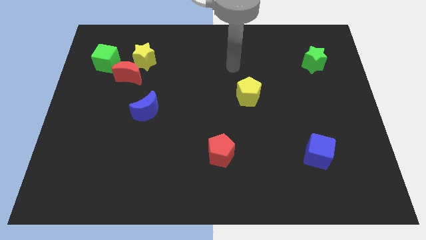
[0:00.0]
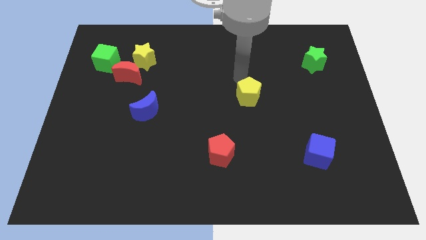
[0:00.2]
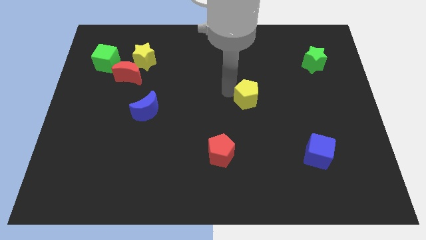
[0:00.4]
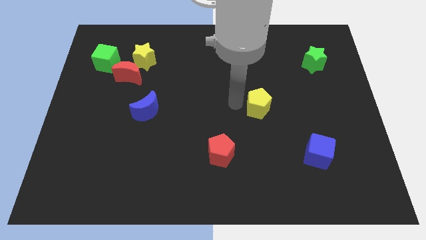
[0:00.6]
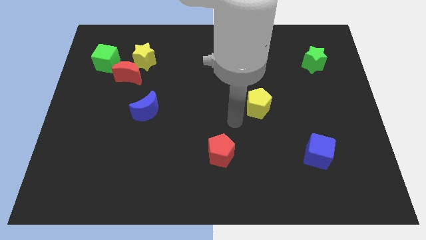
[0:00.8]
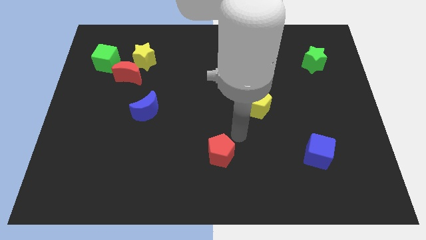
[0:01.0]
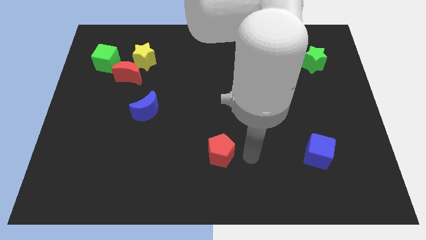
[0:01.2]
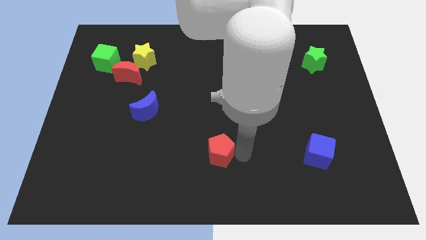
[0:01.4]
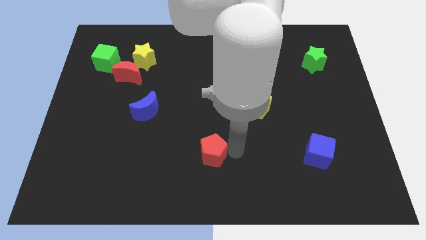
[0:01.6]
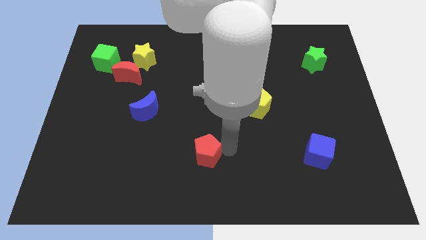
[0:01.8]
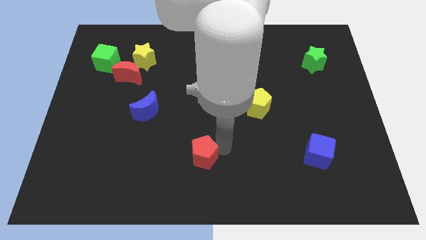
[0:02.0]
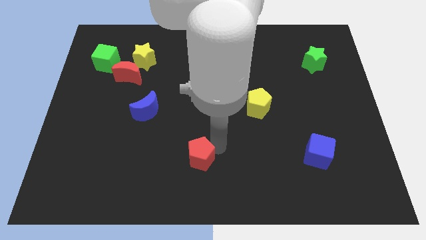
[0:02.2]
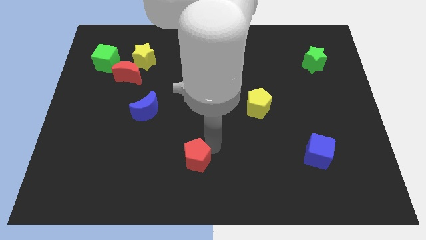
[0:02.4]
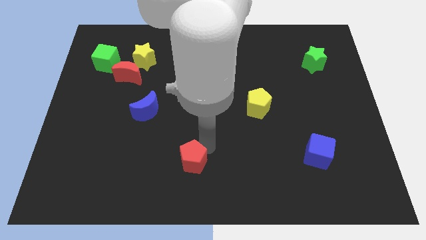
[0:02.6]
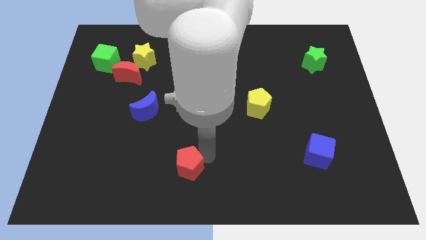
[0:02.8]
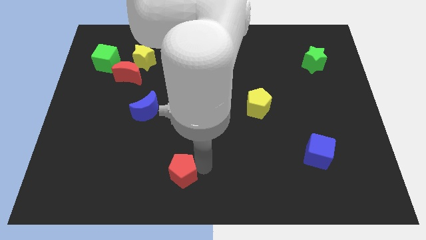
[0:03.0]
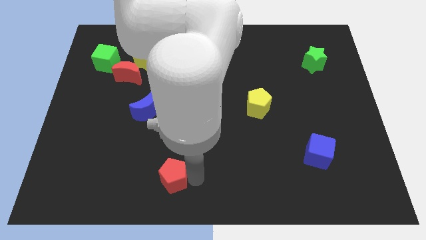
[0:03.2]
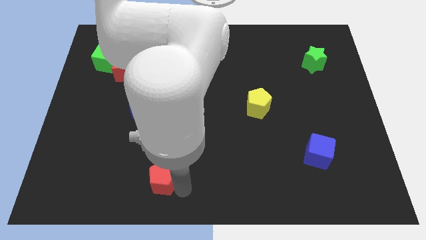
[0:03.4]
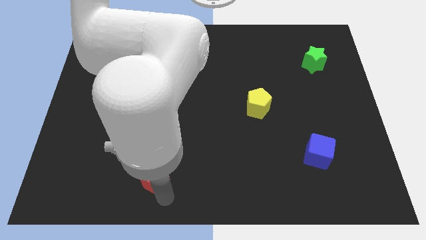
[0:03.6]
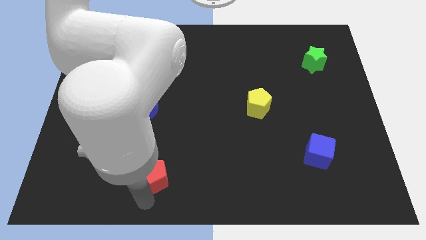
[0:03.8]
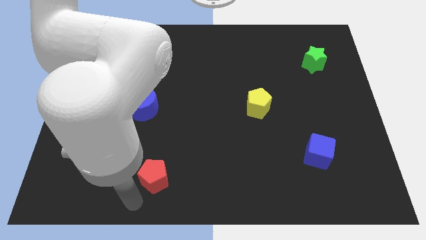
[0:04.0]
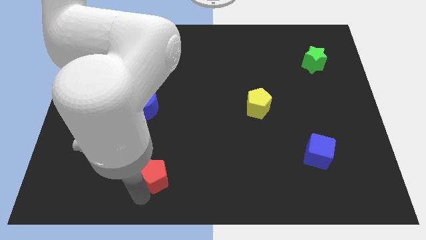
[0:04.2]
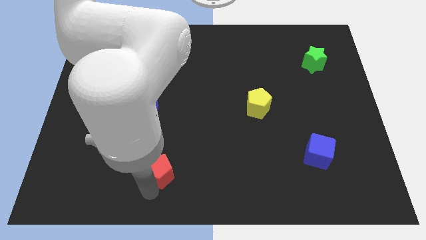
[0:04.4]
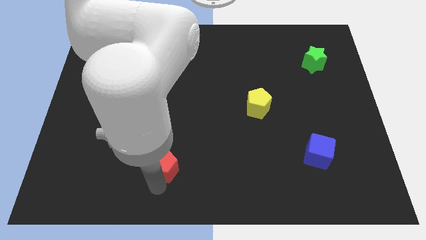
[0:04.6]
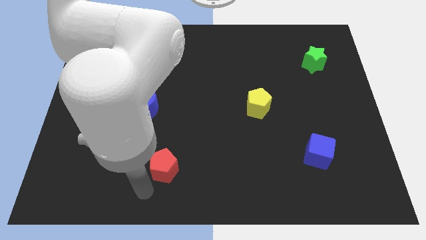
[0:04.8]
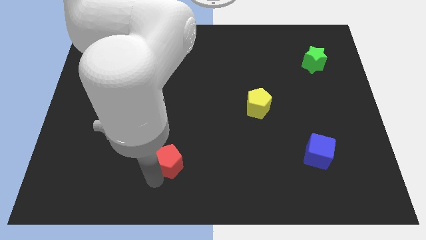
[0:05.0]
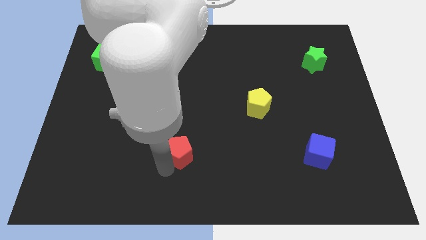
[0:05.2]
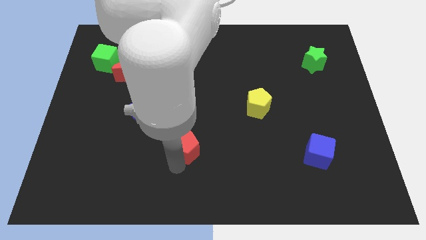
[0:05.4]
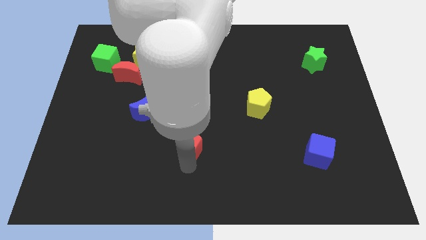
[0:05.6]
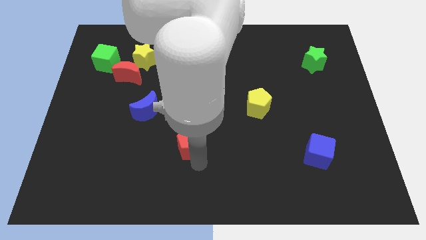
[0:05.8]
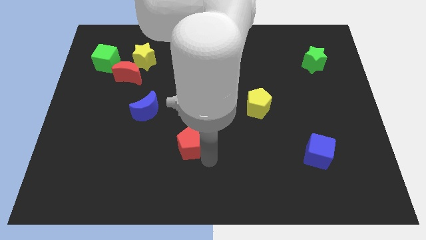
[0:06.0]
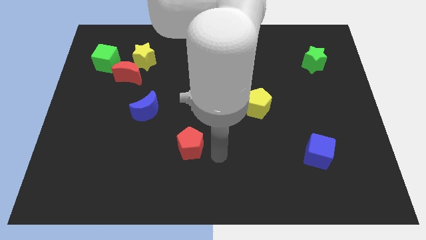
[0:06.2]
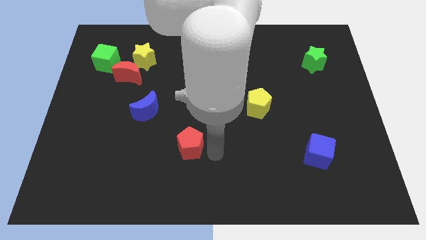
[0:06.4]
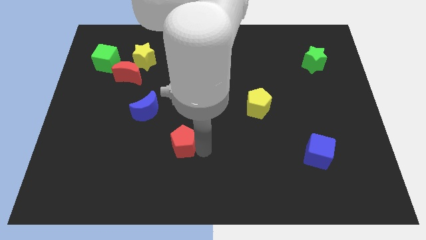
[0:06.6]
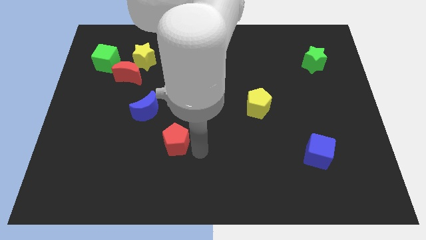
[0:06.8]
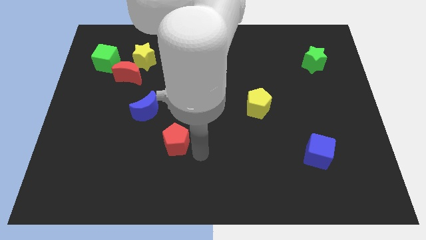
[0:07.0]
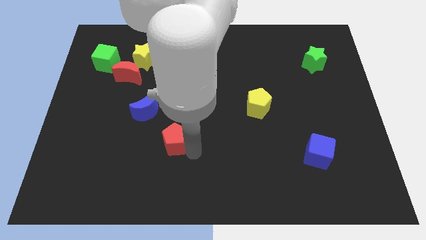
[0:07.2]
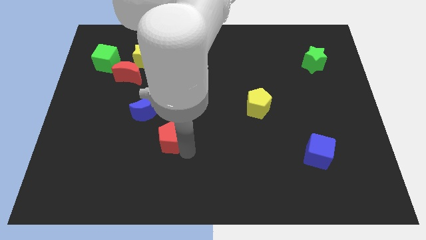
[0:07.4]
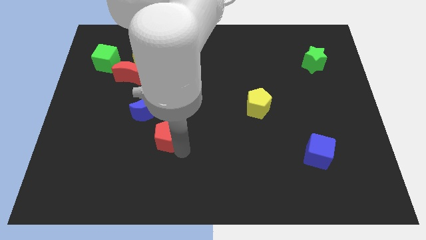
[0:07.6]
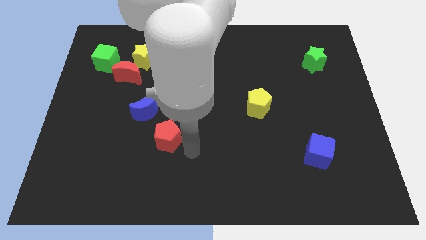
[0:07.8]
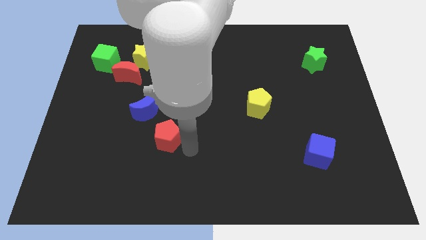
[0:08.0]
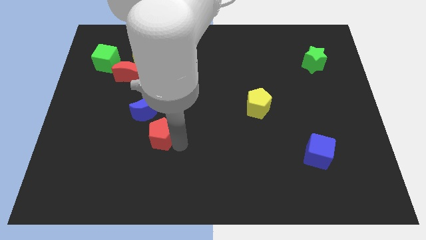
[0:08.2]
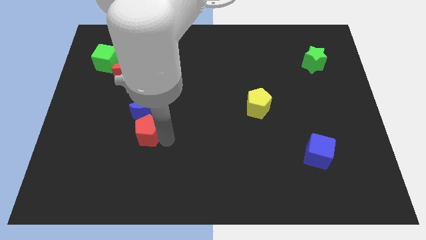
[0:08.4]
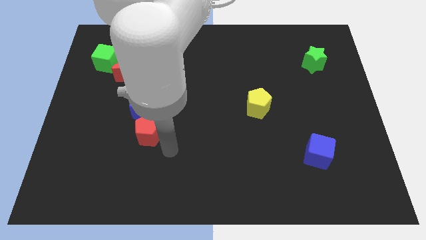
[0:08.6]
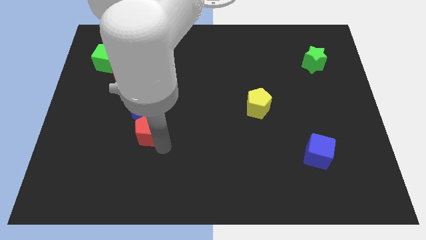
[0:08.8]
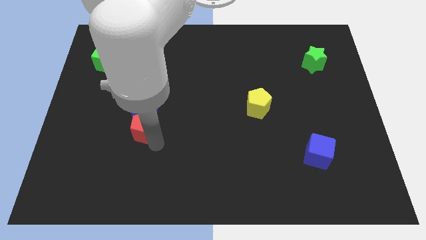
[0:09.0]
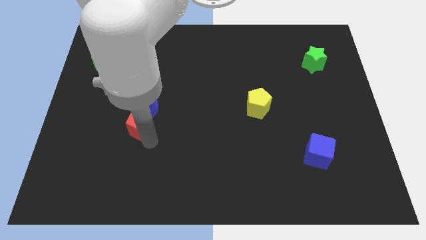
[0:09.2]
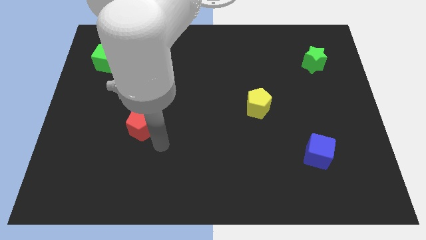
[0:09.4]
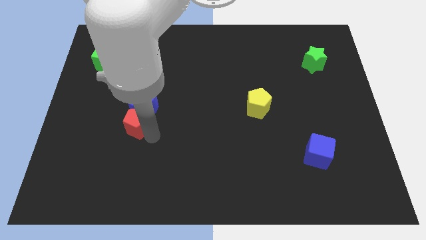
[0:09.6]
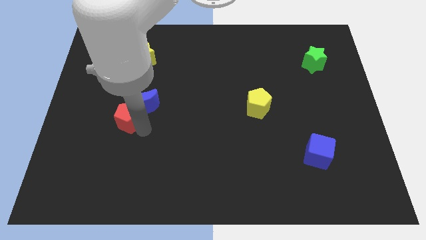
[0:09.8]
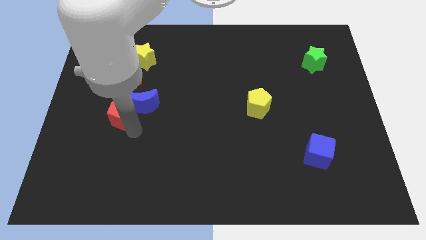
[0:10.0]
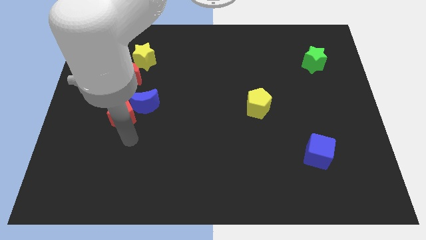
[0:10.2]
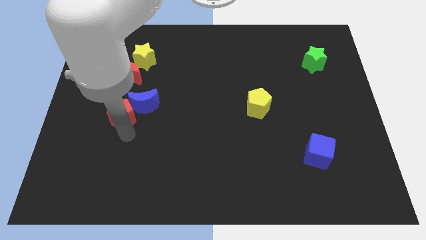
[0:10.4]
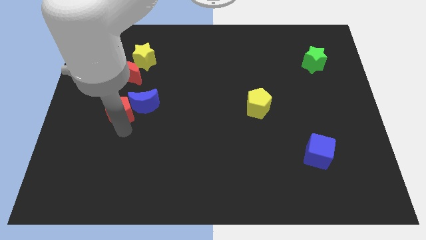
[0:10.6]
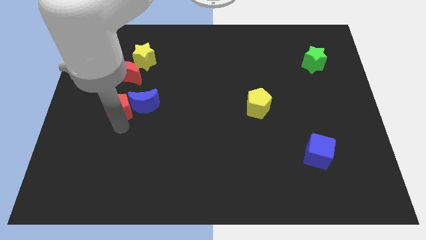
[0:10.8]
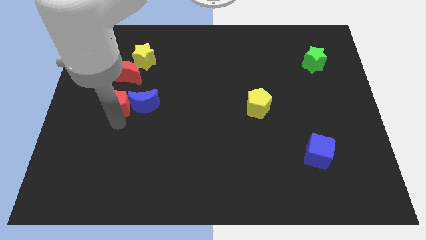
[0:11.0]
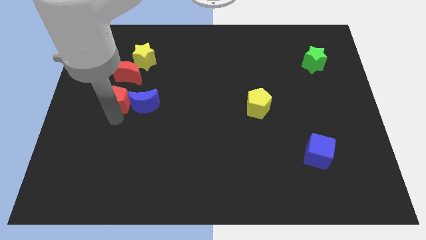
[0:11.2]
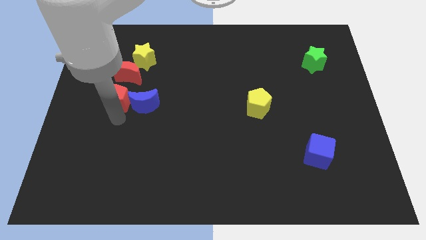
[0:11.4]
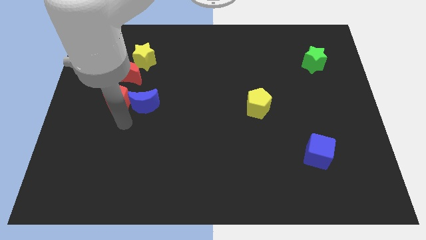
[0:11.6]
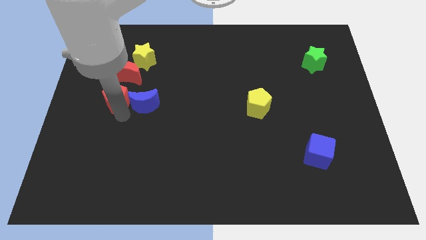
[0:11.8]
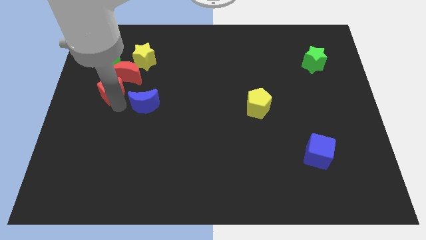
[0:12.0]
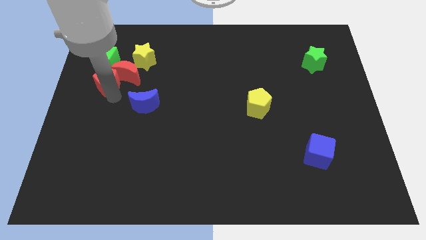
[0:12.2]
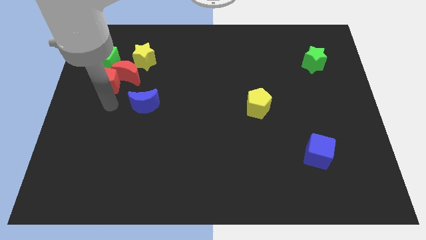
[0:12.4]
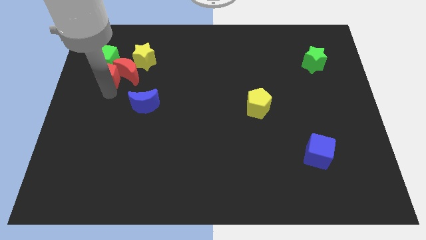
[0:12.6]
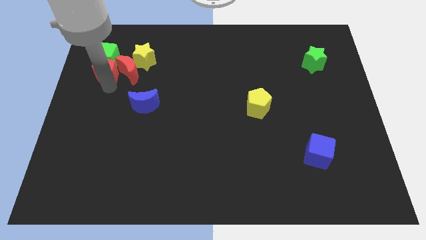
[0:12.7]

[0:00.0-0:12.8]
put the red pentagon next to the green cube

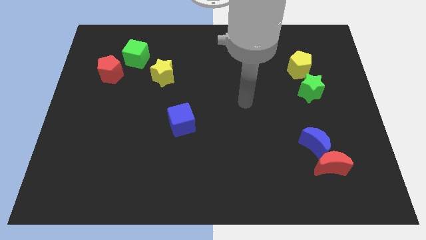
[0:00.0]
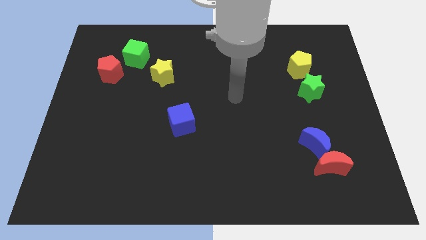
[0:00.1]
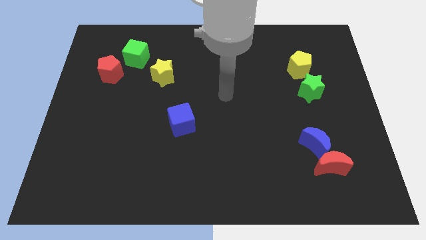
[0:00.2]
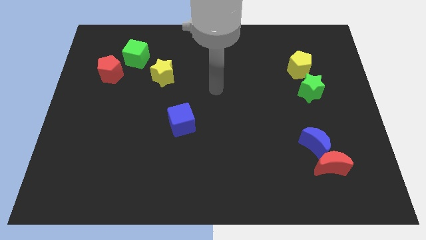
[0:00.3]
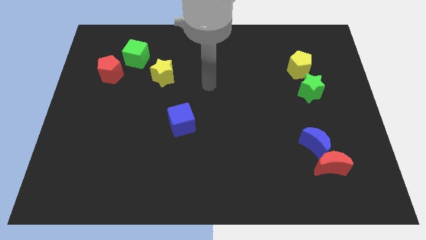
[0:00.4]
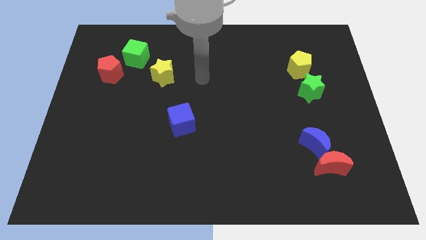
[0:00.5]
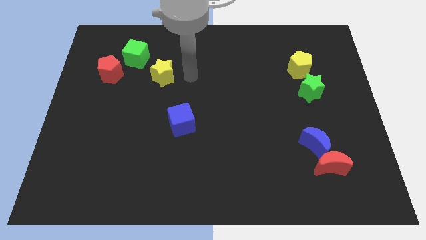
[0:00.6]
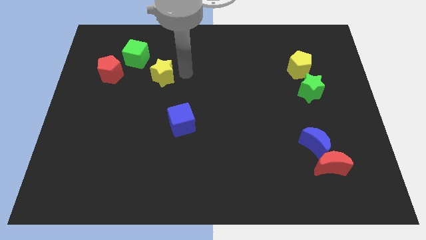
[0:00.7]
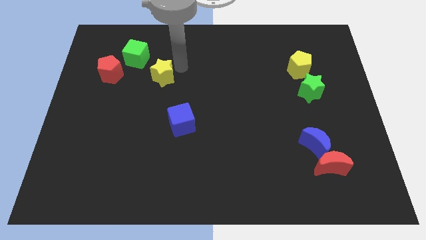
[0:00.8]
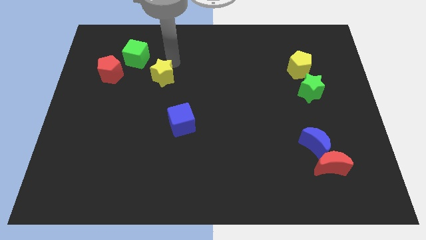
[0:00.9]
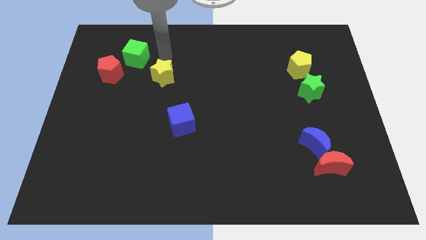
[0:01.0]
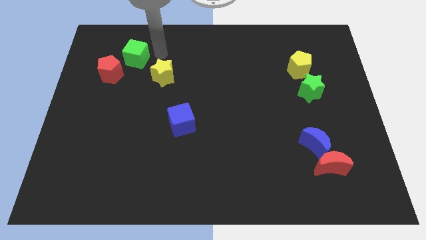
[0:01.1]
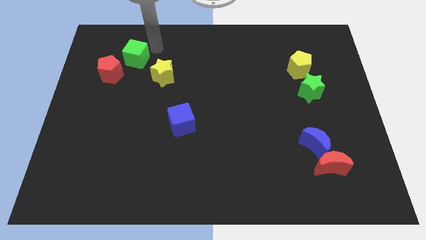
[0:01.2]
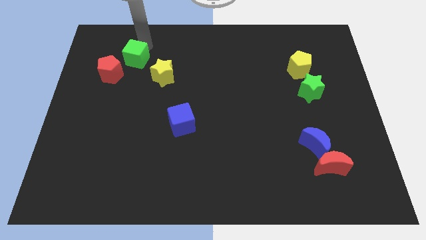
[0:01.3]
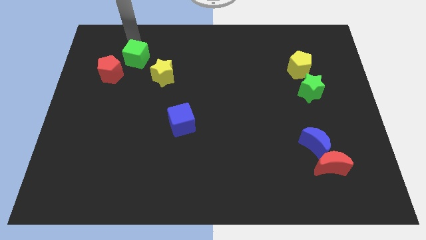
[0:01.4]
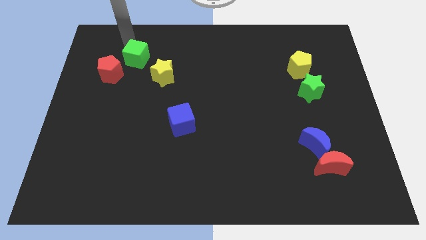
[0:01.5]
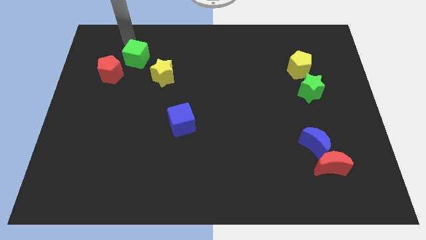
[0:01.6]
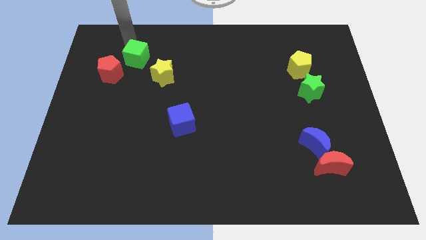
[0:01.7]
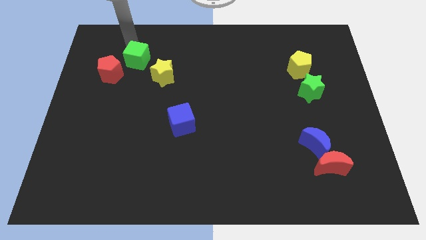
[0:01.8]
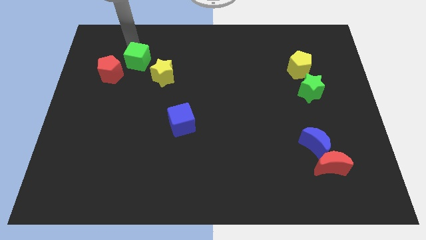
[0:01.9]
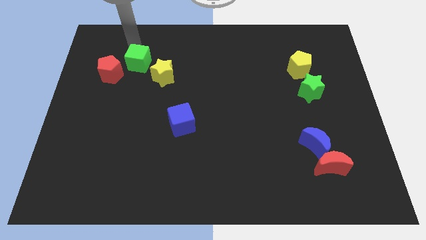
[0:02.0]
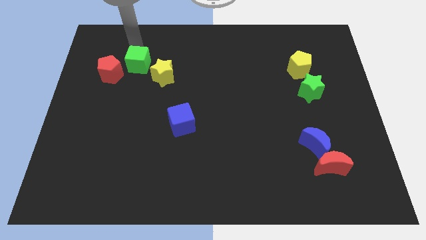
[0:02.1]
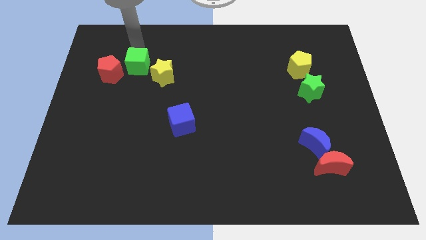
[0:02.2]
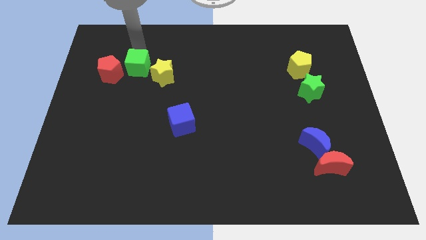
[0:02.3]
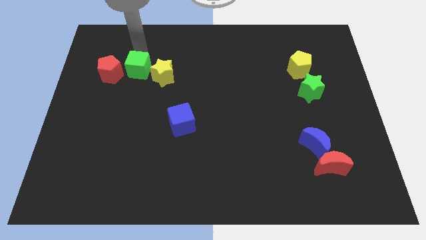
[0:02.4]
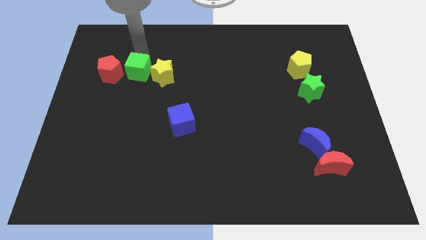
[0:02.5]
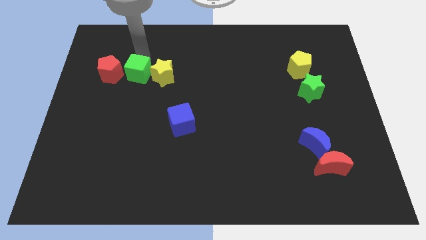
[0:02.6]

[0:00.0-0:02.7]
put the green cube close to the yellow star
